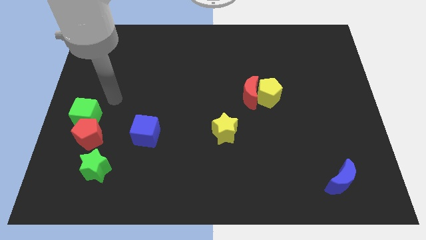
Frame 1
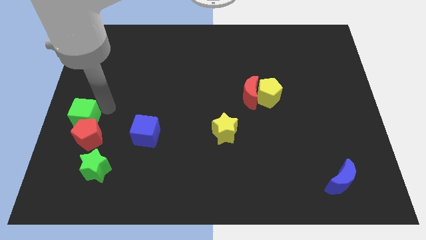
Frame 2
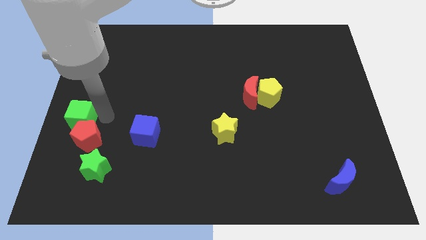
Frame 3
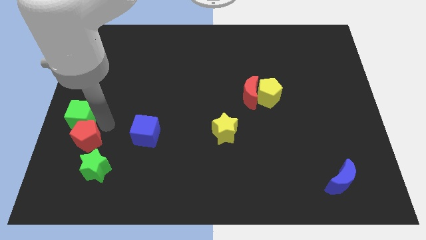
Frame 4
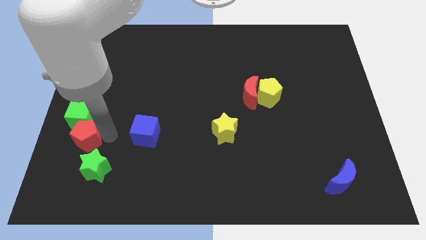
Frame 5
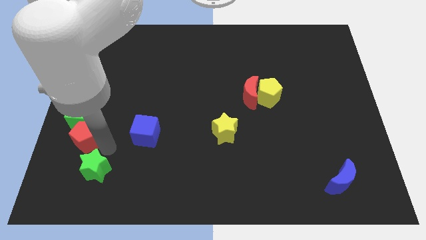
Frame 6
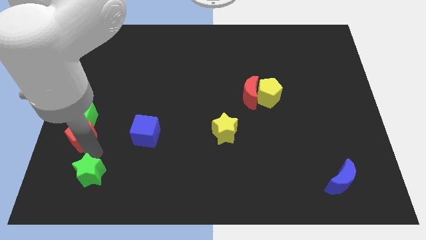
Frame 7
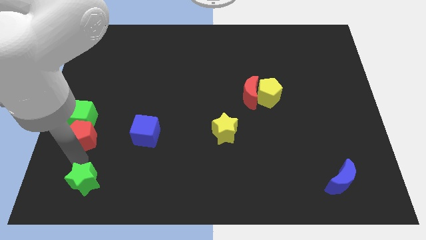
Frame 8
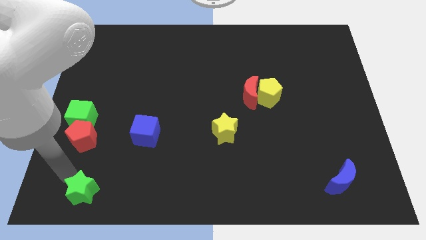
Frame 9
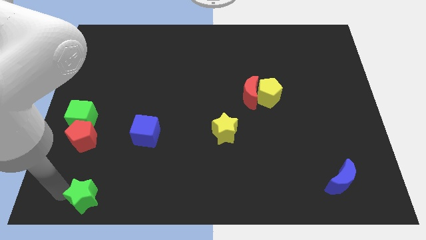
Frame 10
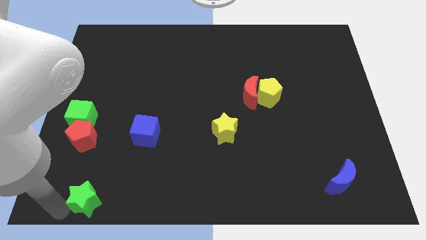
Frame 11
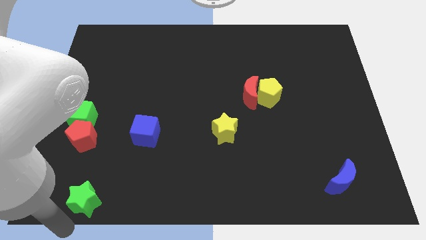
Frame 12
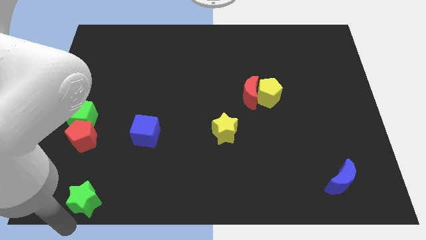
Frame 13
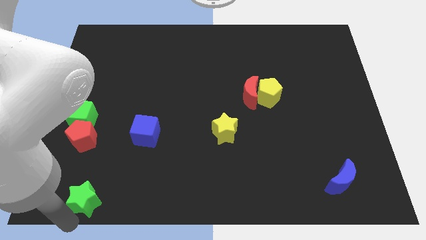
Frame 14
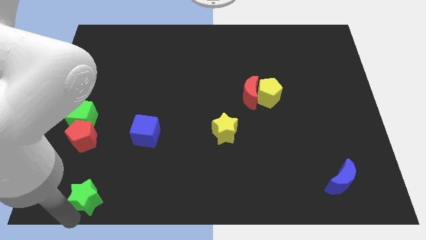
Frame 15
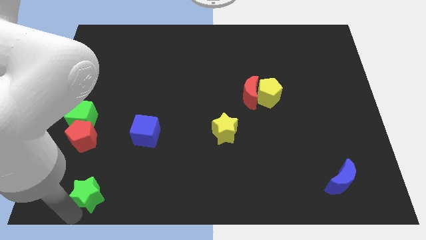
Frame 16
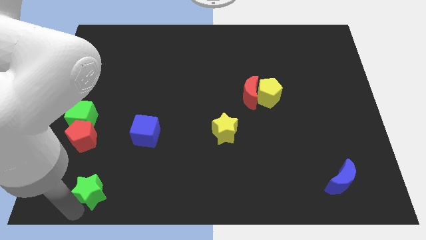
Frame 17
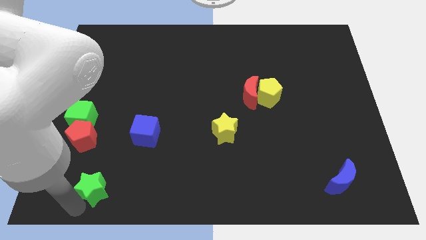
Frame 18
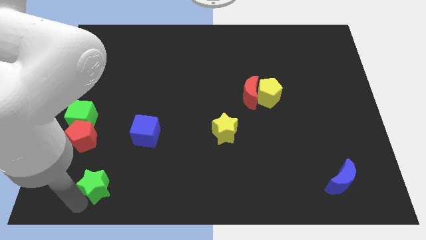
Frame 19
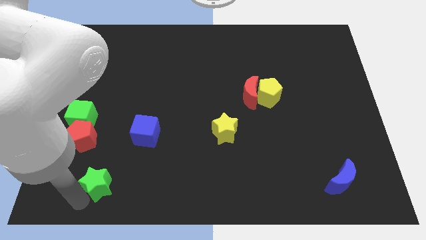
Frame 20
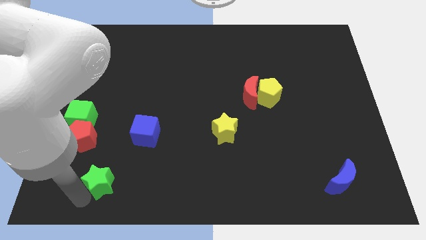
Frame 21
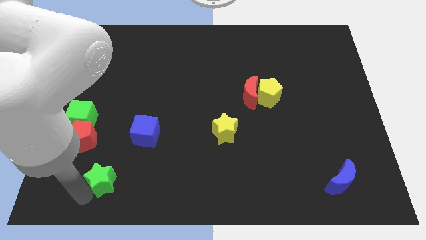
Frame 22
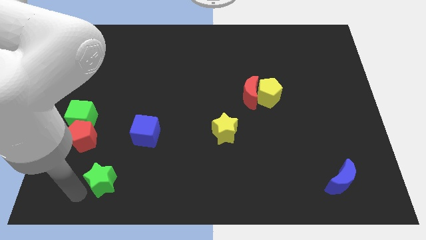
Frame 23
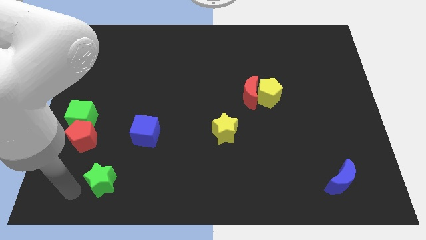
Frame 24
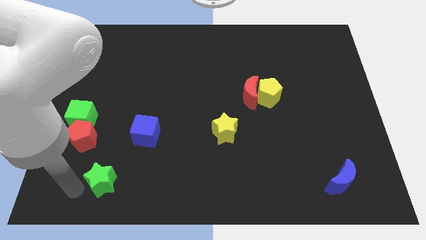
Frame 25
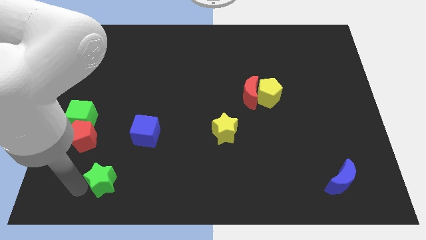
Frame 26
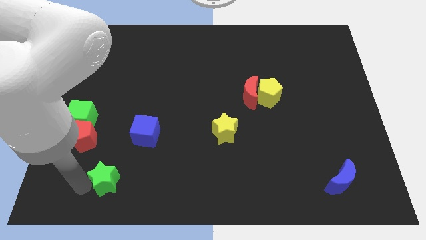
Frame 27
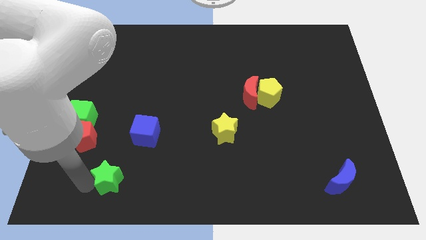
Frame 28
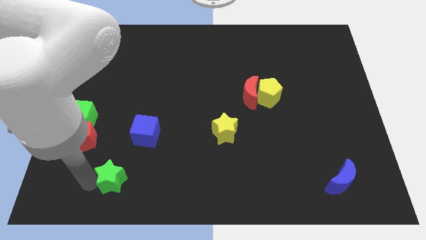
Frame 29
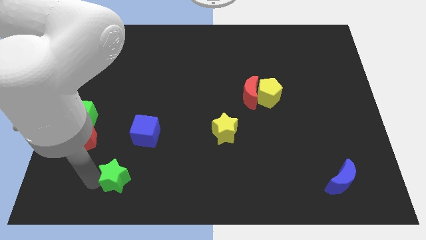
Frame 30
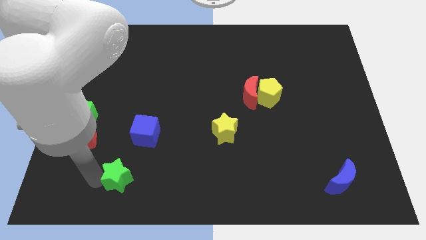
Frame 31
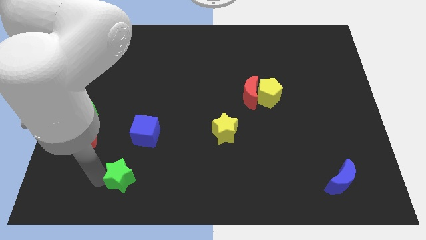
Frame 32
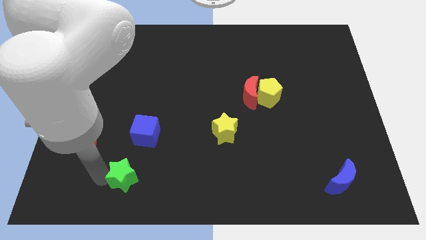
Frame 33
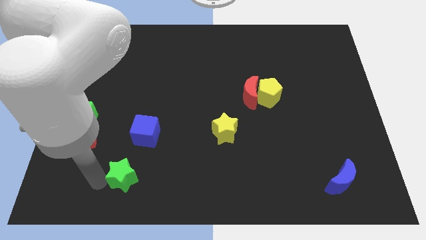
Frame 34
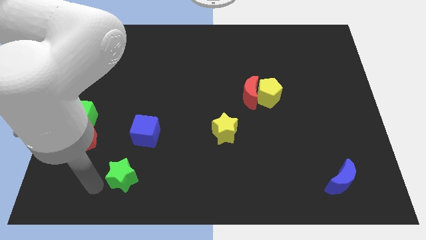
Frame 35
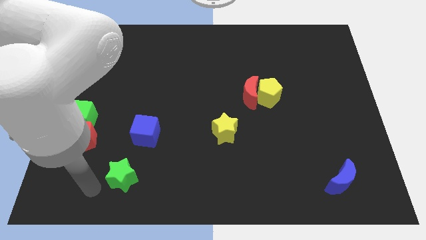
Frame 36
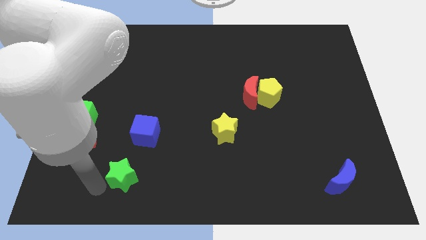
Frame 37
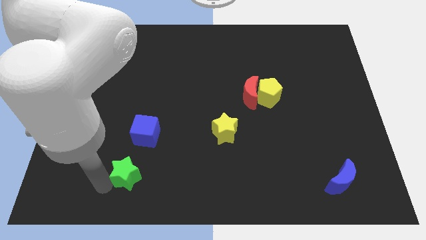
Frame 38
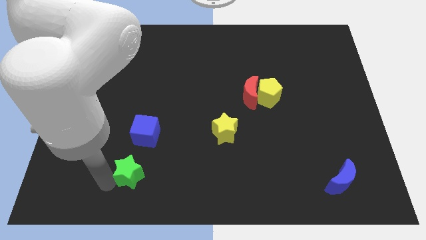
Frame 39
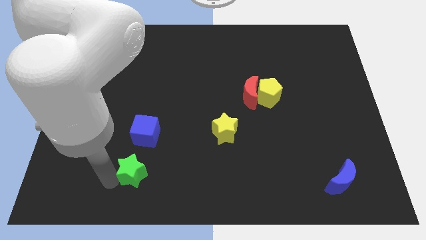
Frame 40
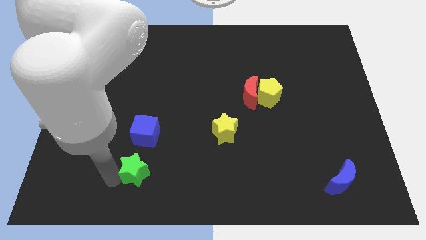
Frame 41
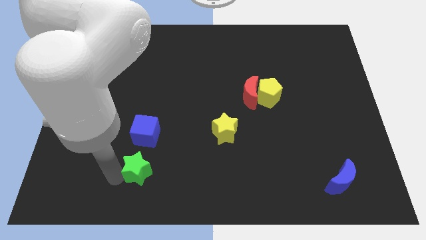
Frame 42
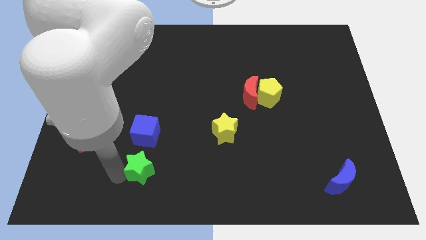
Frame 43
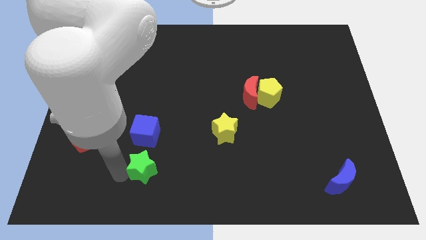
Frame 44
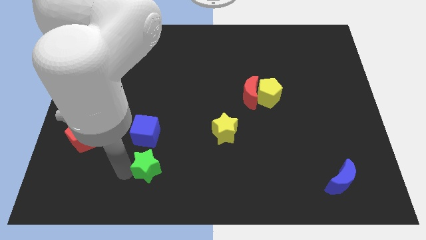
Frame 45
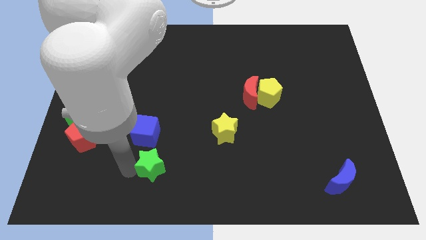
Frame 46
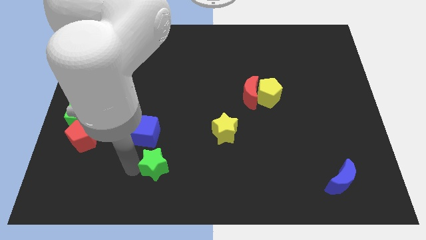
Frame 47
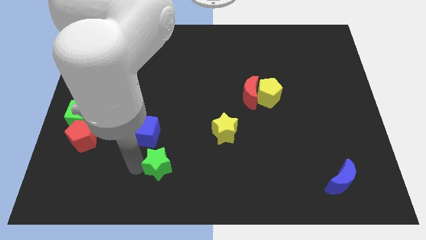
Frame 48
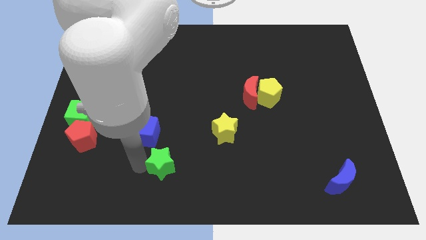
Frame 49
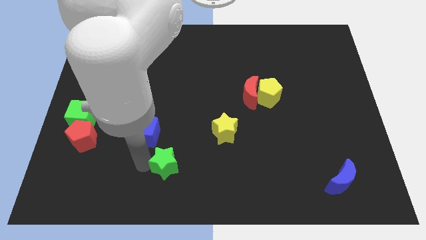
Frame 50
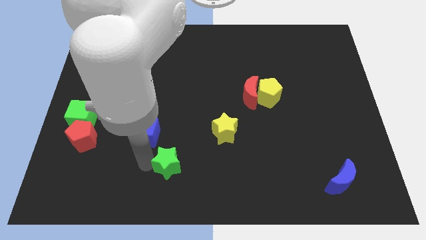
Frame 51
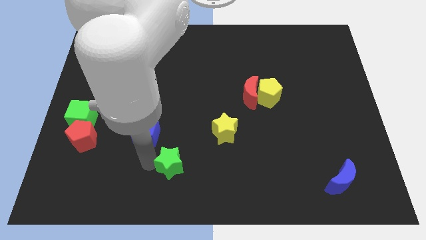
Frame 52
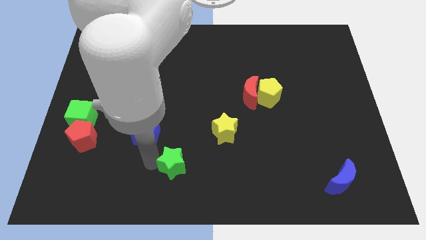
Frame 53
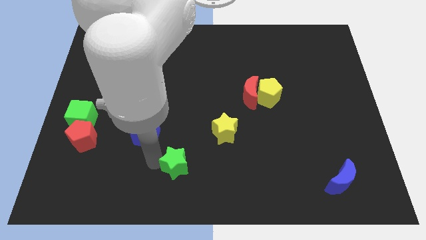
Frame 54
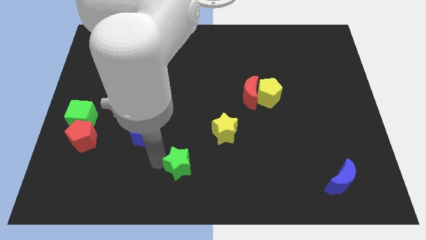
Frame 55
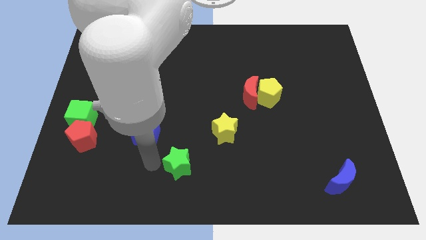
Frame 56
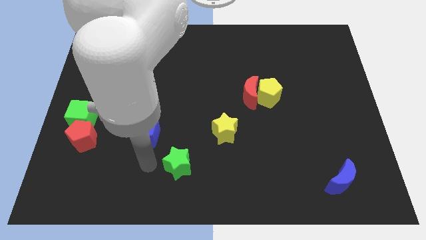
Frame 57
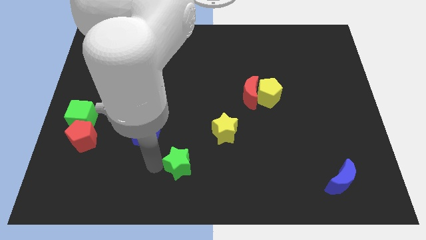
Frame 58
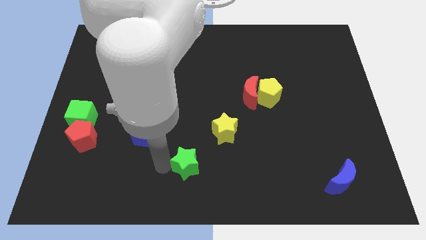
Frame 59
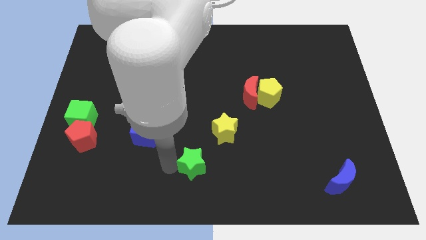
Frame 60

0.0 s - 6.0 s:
move the green star to the right

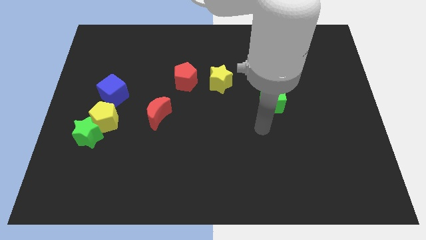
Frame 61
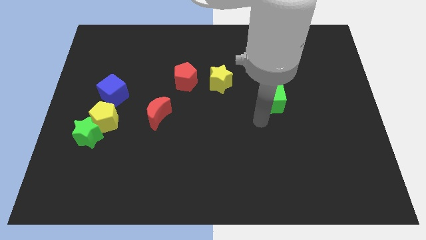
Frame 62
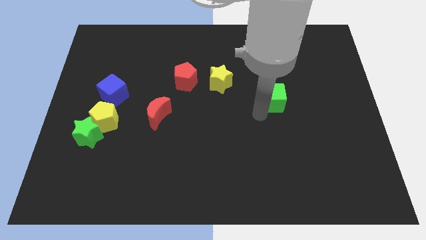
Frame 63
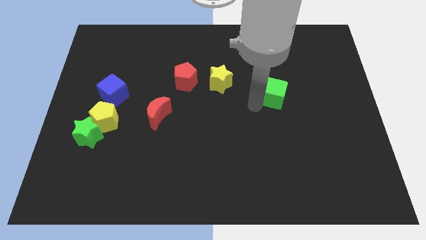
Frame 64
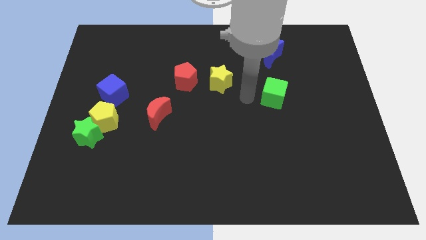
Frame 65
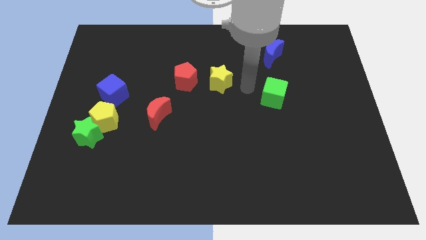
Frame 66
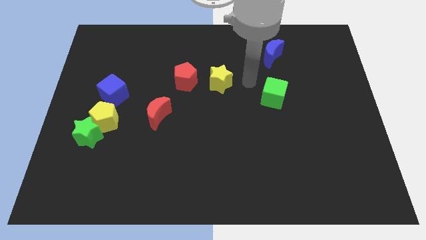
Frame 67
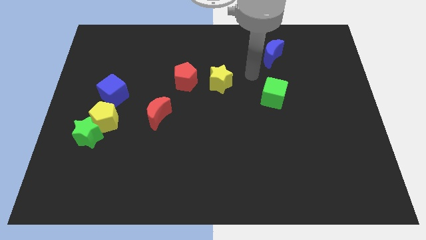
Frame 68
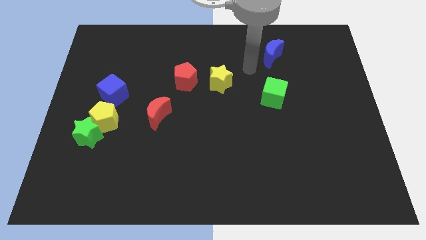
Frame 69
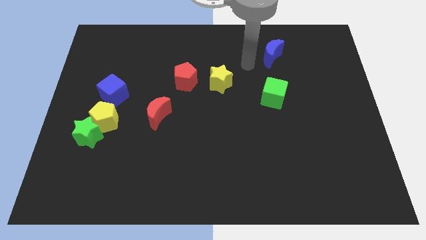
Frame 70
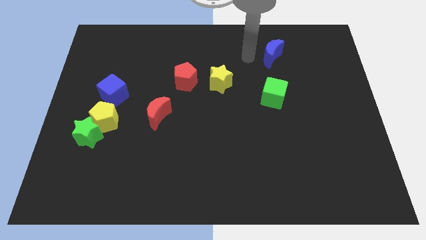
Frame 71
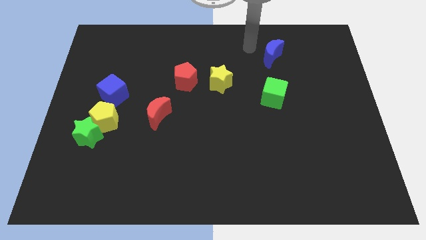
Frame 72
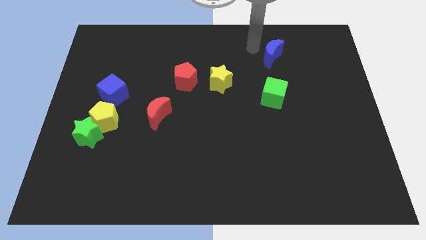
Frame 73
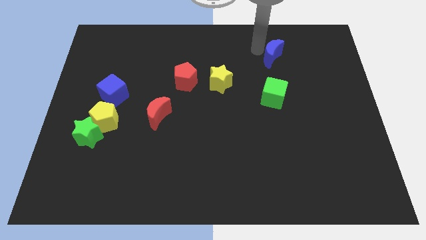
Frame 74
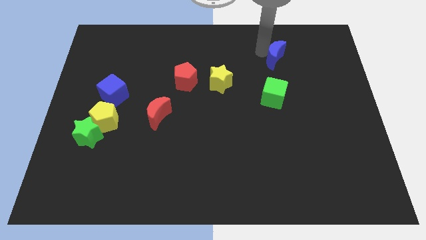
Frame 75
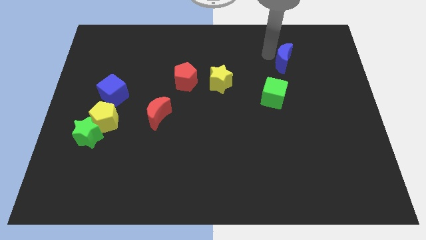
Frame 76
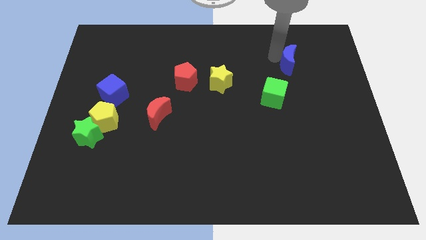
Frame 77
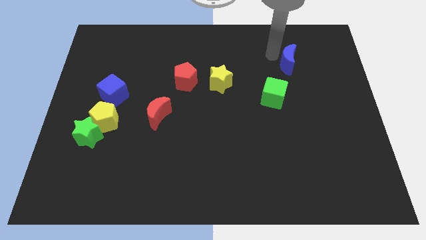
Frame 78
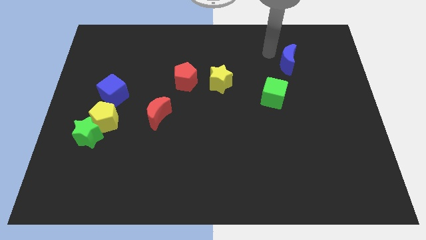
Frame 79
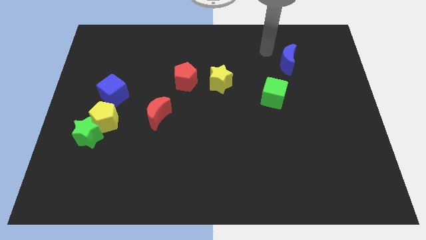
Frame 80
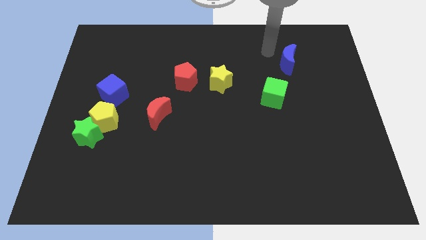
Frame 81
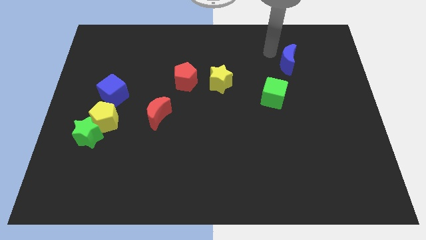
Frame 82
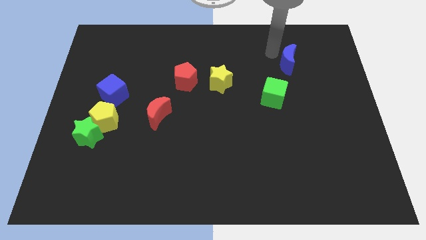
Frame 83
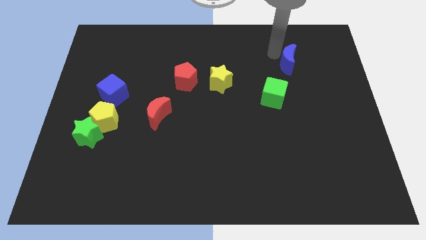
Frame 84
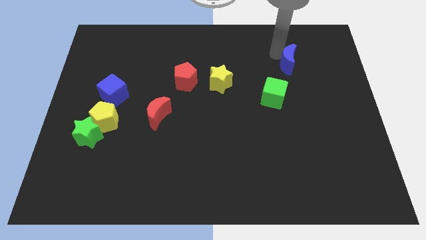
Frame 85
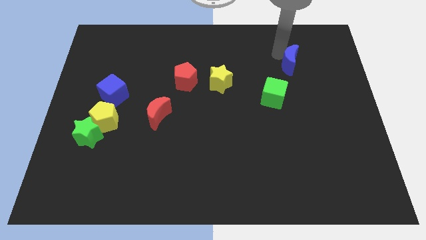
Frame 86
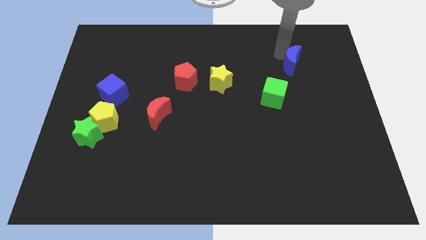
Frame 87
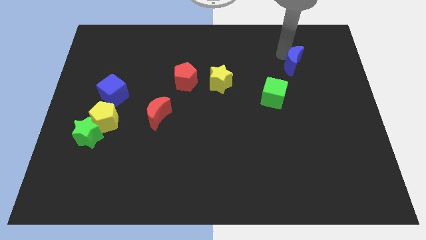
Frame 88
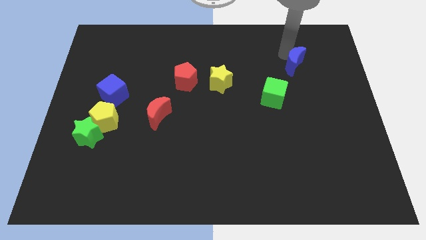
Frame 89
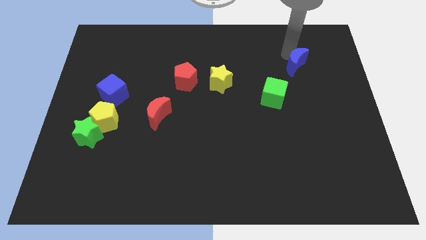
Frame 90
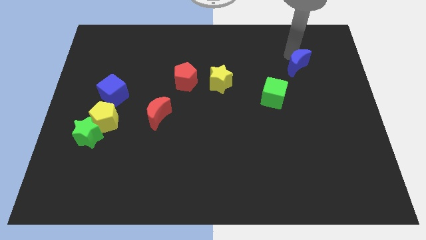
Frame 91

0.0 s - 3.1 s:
push the blue moon somewhat down and then to the right
